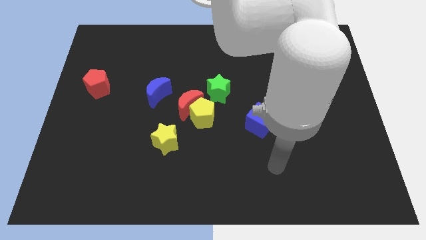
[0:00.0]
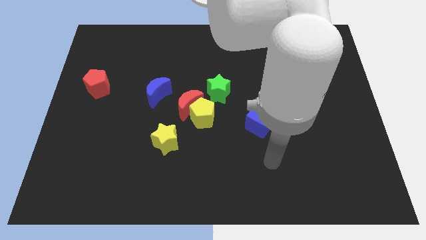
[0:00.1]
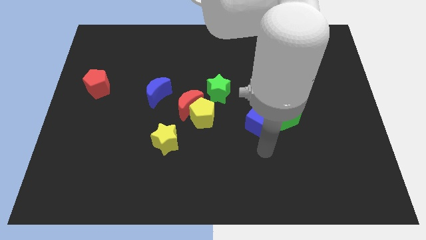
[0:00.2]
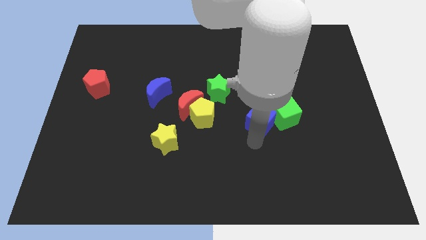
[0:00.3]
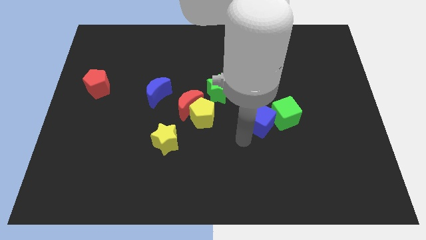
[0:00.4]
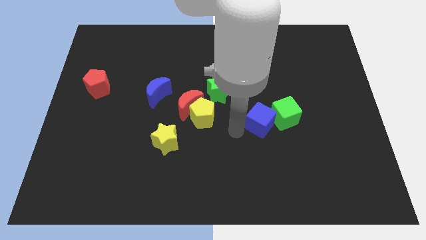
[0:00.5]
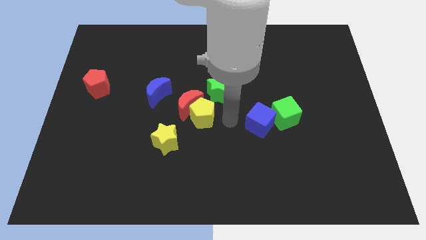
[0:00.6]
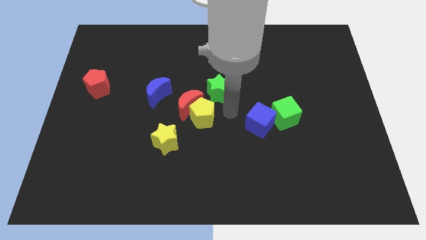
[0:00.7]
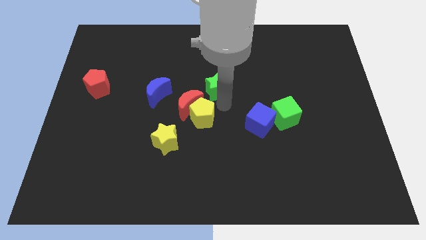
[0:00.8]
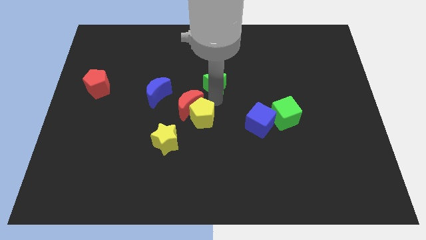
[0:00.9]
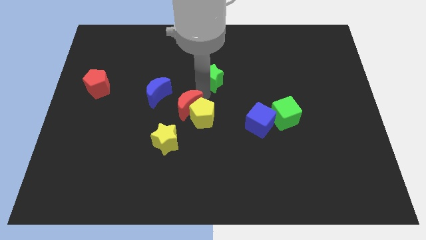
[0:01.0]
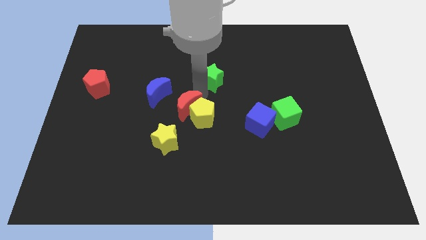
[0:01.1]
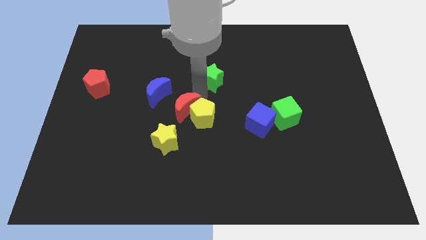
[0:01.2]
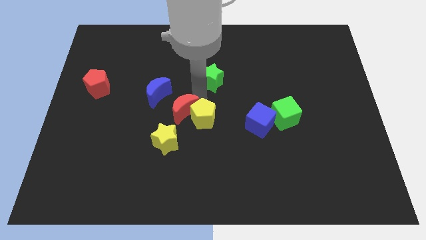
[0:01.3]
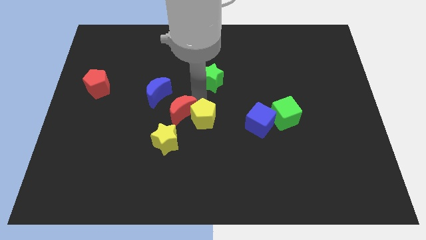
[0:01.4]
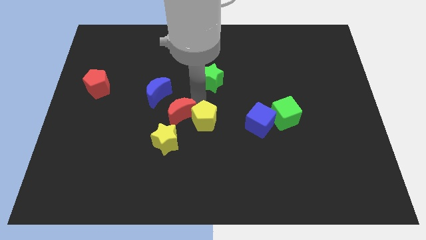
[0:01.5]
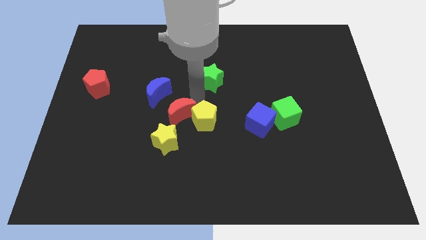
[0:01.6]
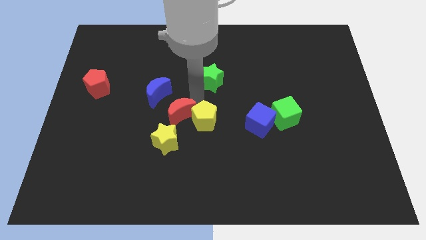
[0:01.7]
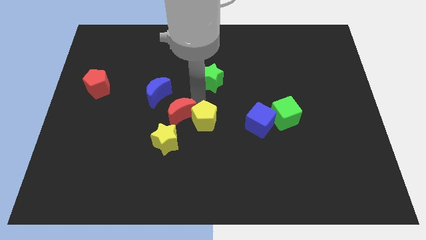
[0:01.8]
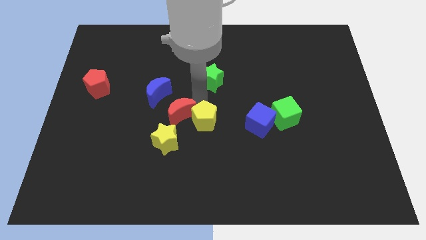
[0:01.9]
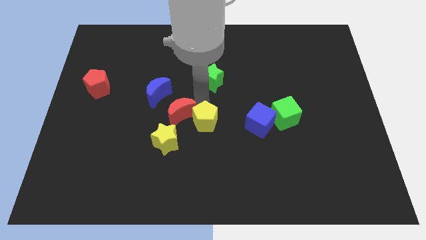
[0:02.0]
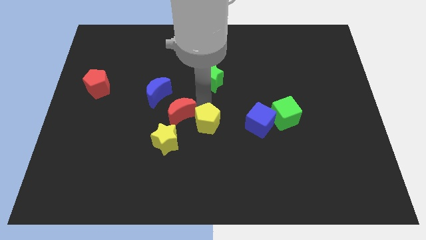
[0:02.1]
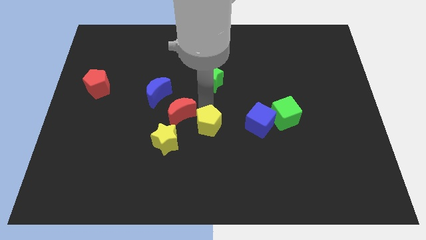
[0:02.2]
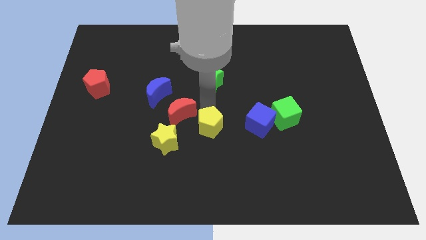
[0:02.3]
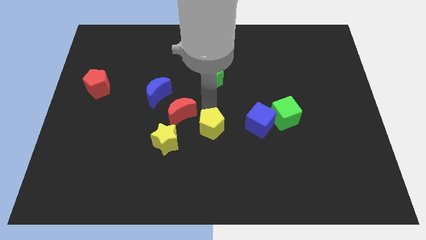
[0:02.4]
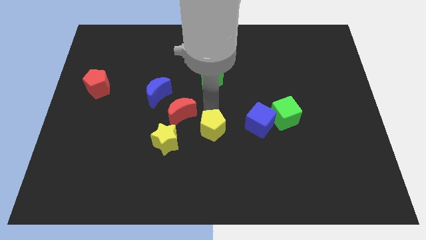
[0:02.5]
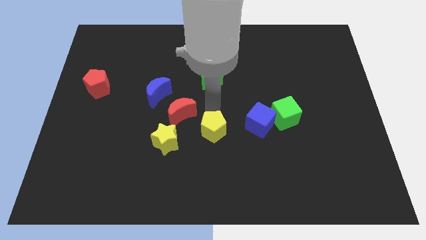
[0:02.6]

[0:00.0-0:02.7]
separate the yellow pentagon from the red moon and green star

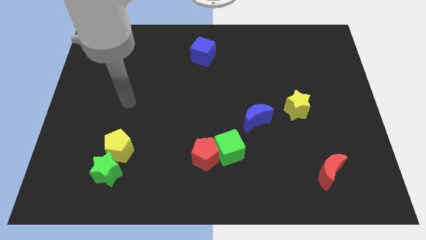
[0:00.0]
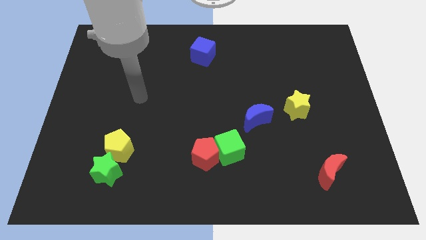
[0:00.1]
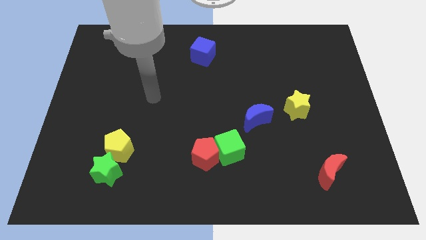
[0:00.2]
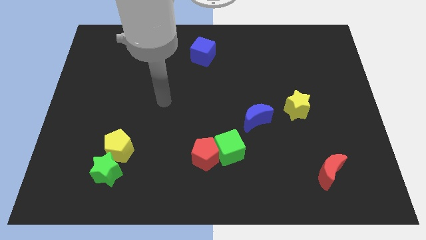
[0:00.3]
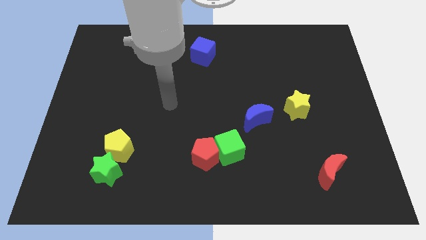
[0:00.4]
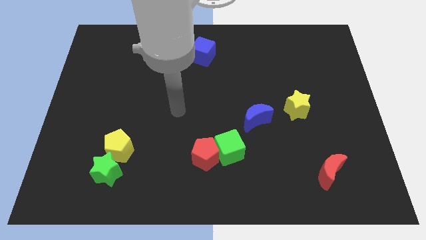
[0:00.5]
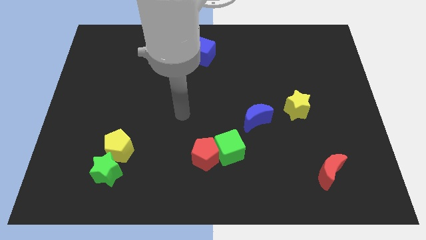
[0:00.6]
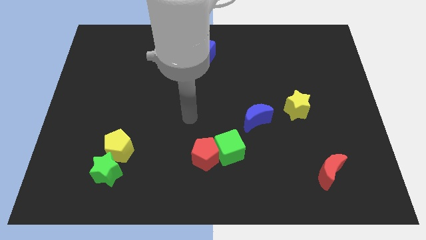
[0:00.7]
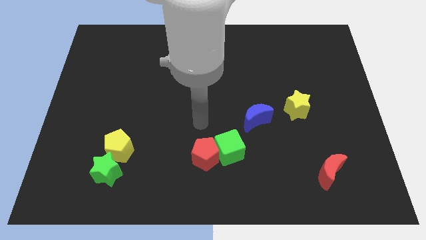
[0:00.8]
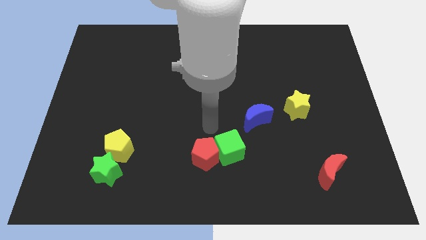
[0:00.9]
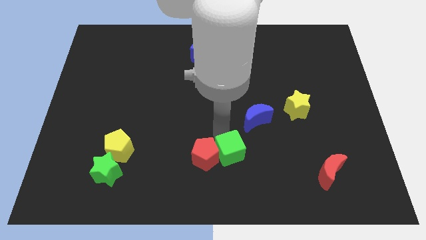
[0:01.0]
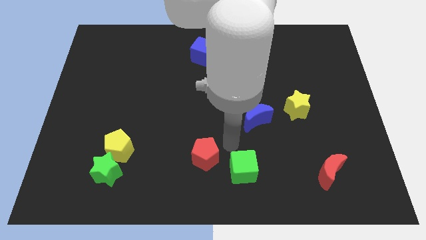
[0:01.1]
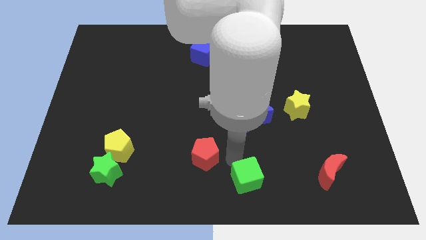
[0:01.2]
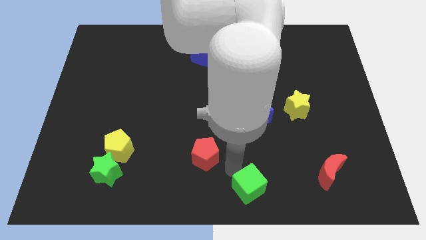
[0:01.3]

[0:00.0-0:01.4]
move the red pentagon away from the green cube

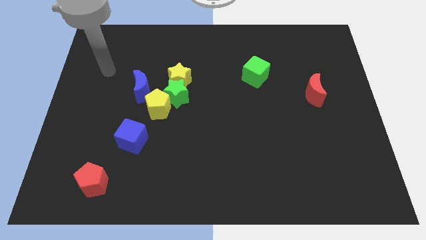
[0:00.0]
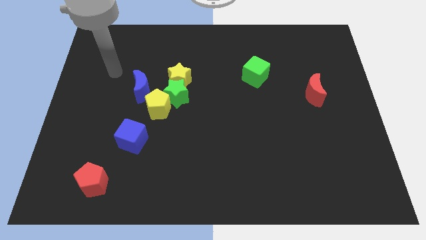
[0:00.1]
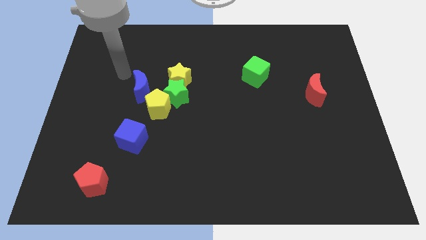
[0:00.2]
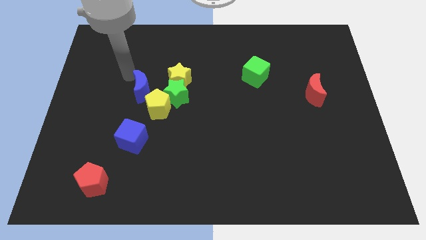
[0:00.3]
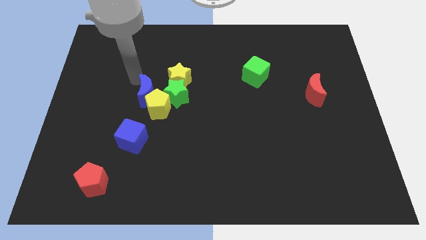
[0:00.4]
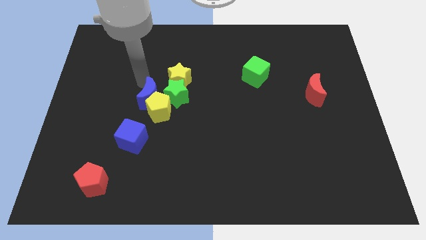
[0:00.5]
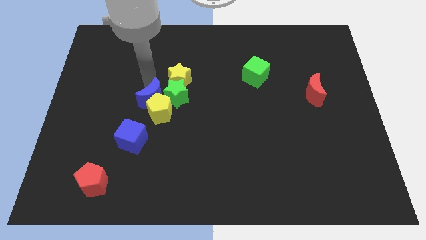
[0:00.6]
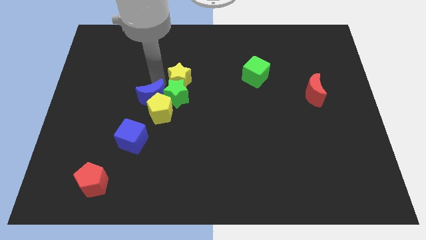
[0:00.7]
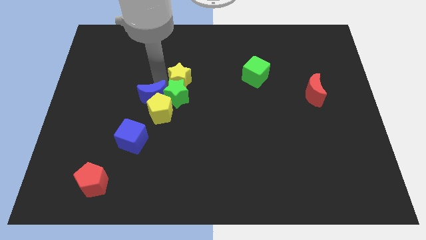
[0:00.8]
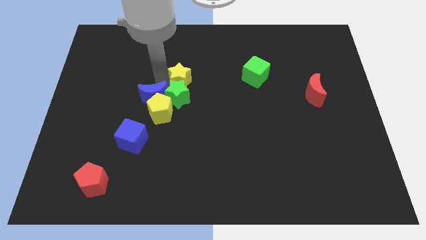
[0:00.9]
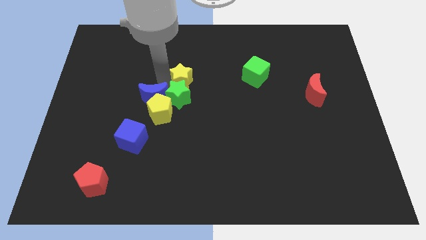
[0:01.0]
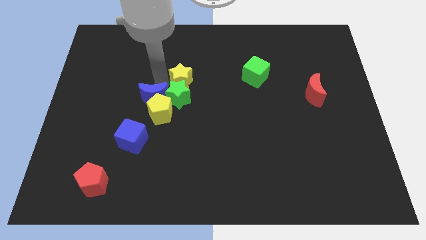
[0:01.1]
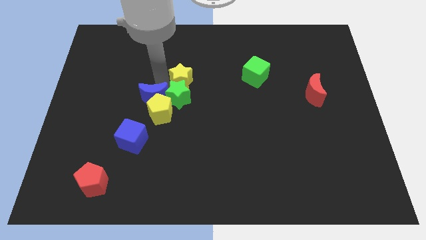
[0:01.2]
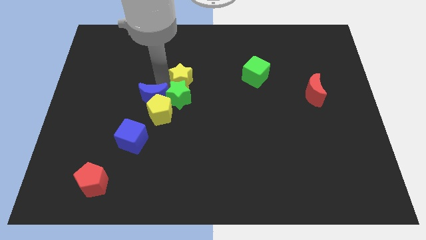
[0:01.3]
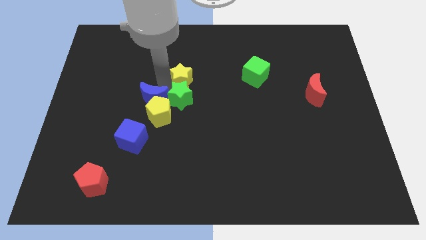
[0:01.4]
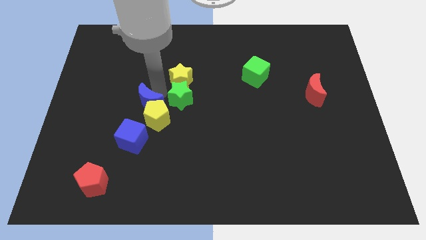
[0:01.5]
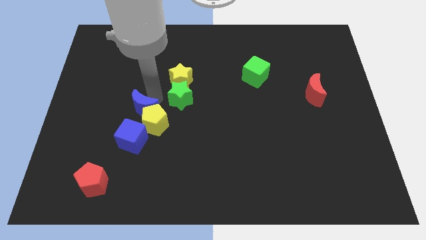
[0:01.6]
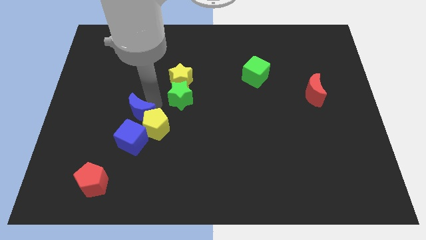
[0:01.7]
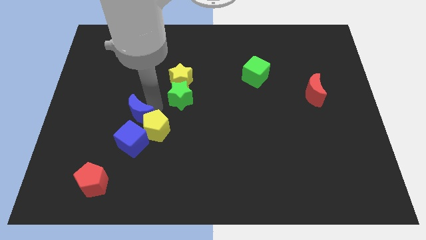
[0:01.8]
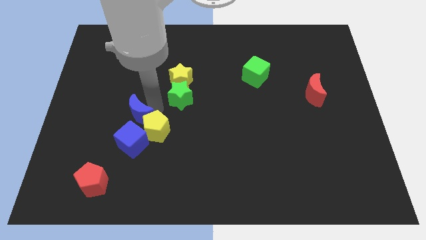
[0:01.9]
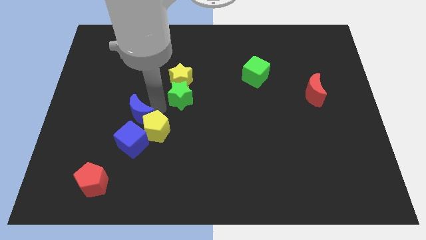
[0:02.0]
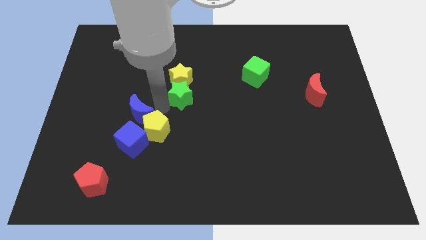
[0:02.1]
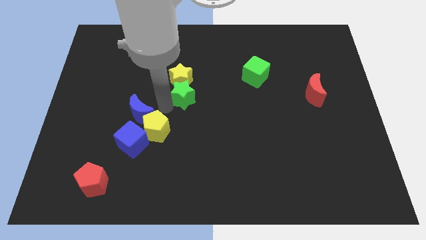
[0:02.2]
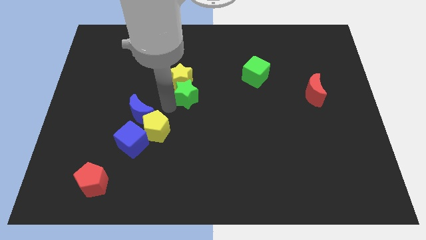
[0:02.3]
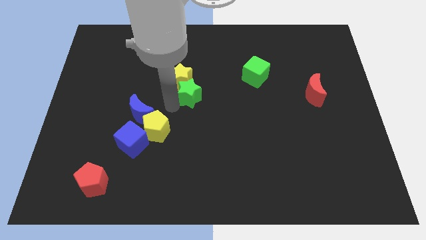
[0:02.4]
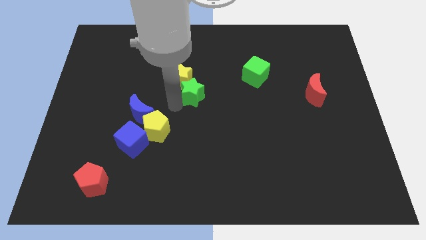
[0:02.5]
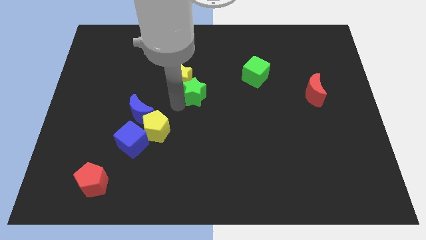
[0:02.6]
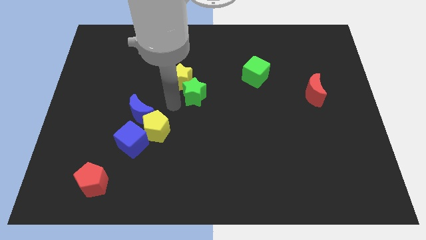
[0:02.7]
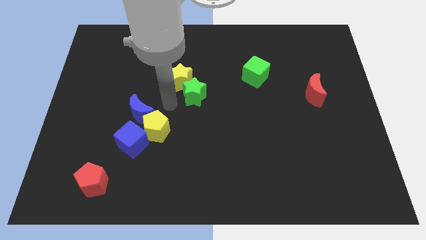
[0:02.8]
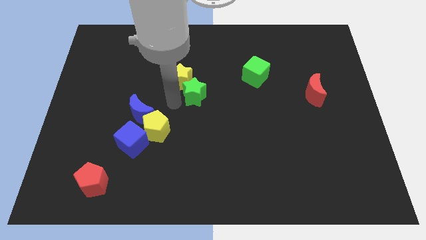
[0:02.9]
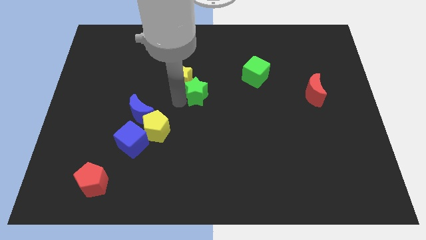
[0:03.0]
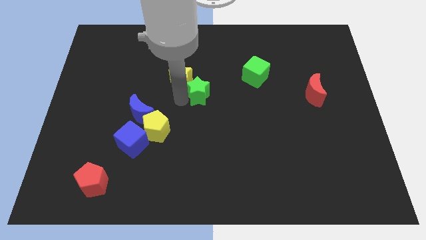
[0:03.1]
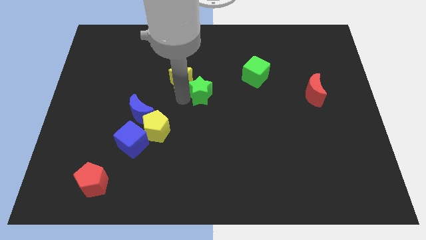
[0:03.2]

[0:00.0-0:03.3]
pull the green star apart from the group of blocks

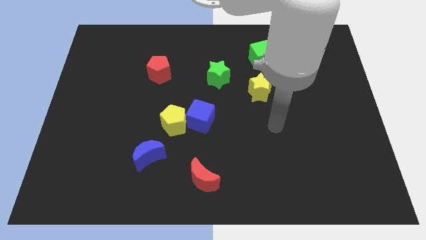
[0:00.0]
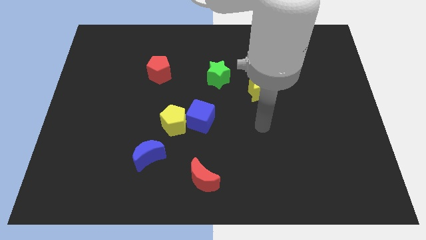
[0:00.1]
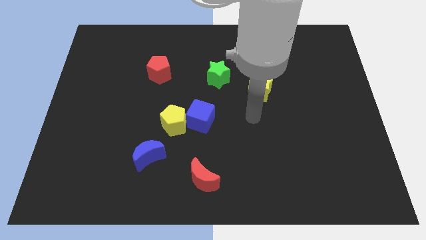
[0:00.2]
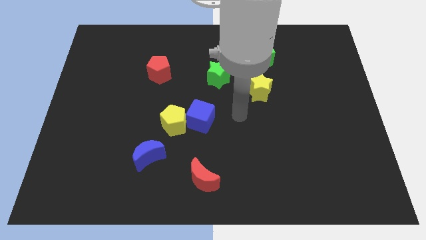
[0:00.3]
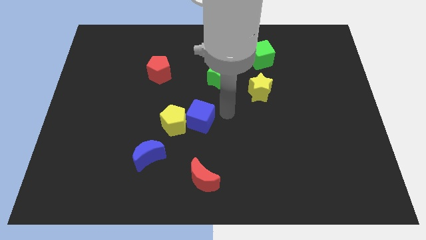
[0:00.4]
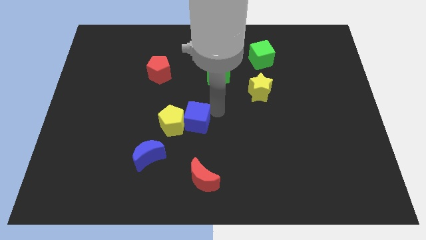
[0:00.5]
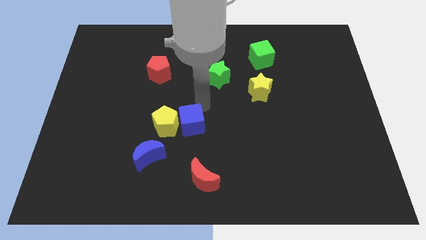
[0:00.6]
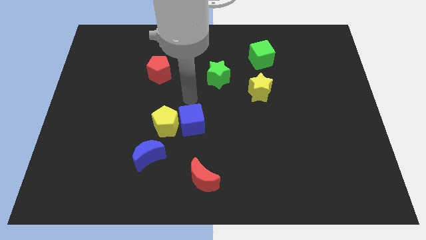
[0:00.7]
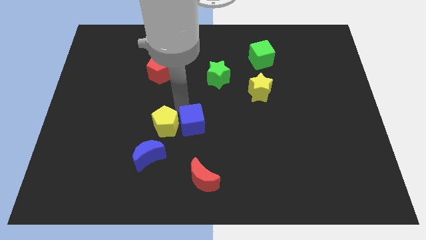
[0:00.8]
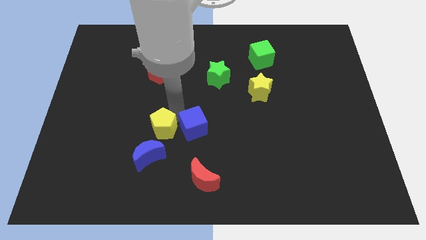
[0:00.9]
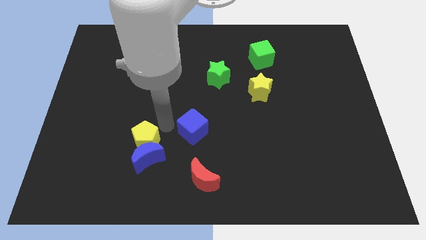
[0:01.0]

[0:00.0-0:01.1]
pull the blue cube apart from the yellow pentagon

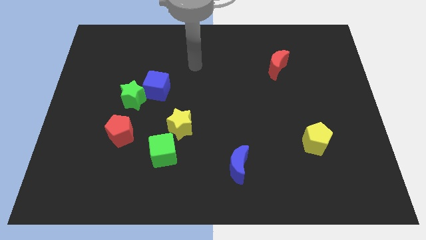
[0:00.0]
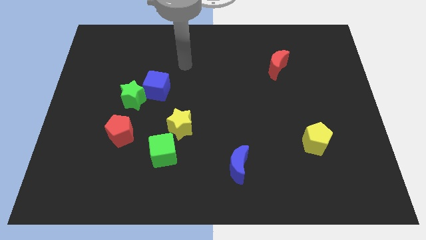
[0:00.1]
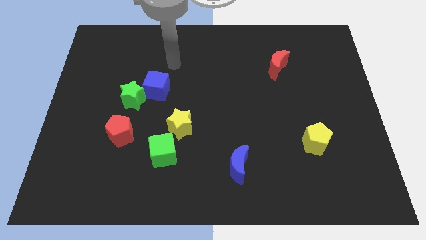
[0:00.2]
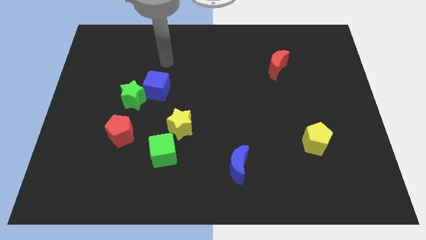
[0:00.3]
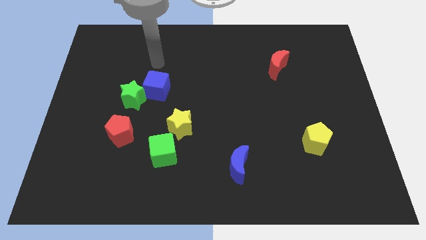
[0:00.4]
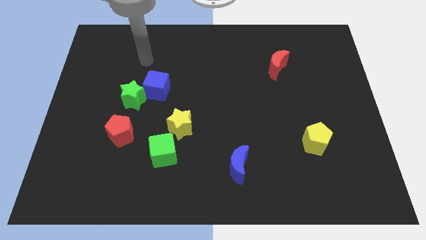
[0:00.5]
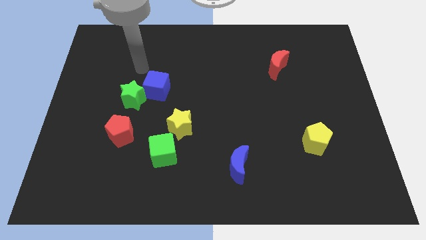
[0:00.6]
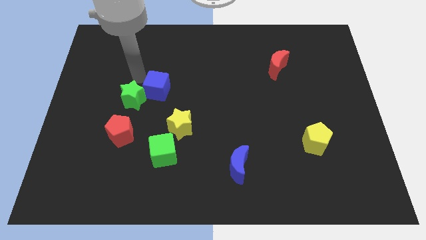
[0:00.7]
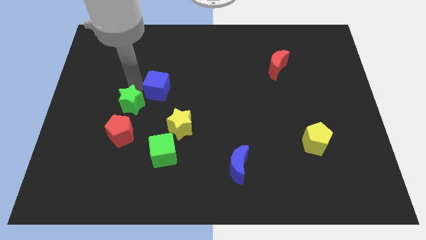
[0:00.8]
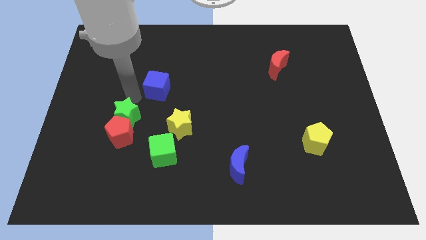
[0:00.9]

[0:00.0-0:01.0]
move the blue cube away from the green star
